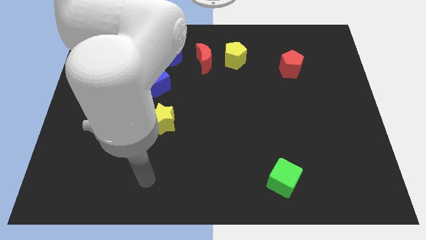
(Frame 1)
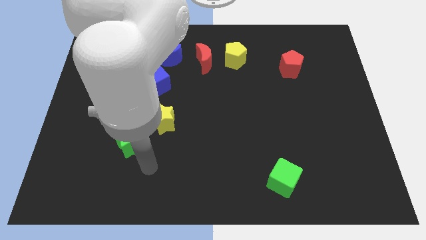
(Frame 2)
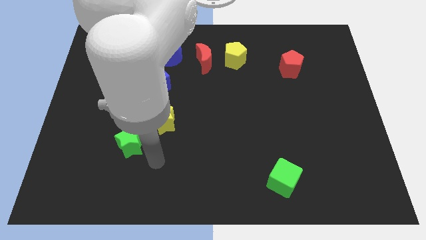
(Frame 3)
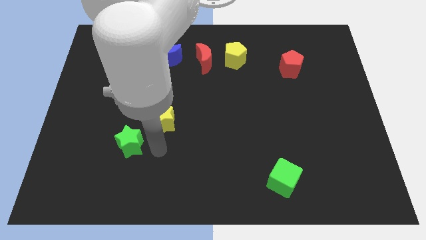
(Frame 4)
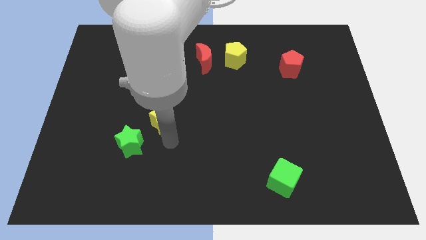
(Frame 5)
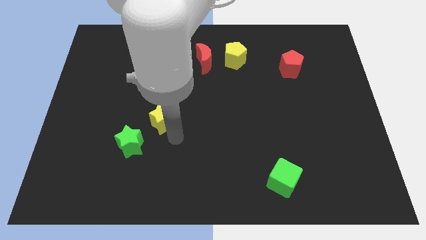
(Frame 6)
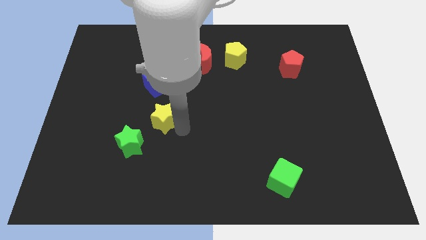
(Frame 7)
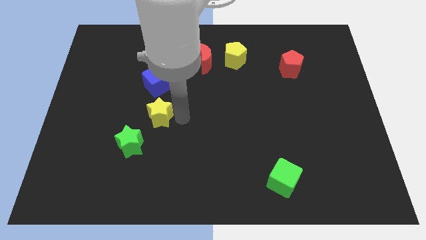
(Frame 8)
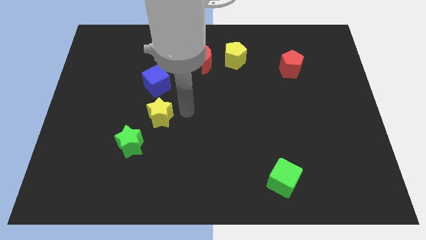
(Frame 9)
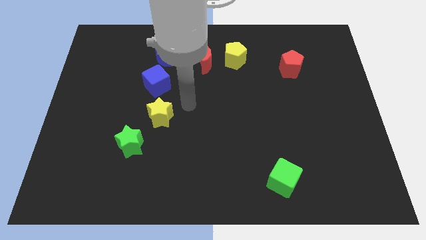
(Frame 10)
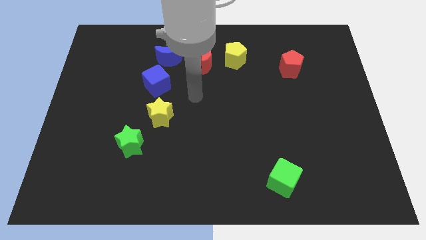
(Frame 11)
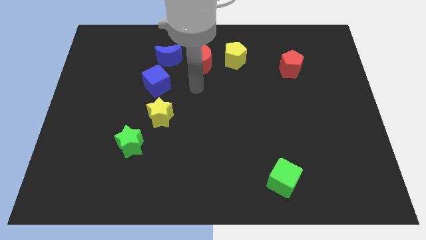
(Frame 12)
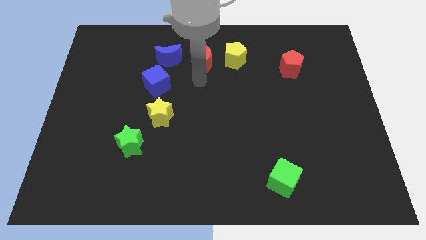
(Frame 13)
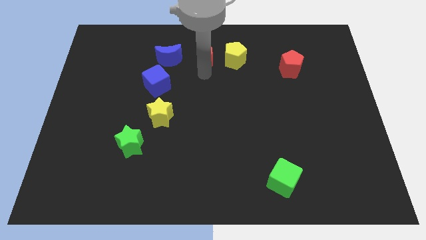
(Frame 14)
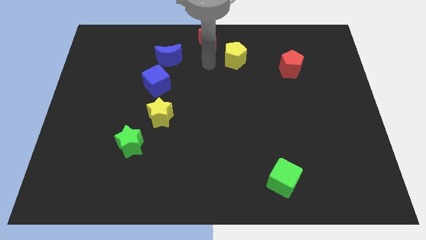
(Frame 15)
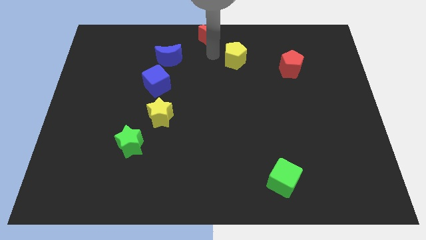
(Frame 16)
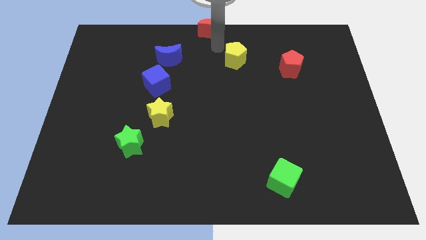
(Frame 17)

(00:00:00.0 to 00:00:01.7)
move the yellow pentagon away from the red moon

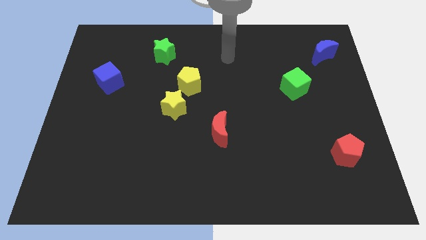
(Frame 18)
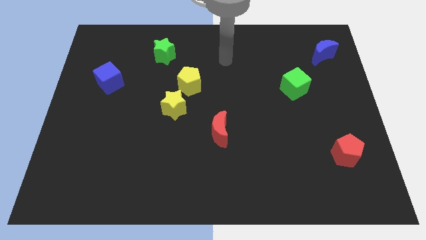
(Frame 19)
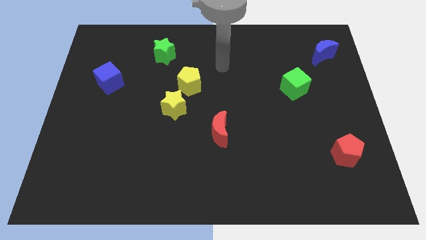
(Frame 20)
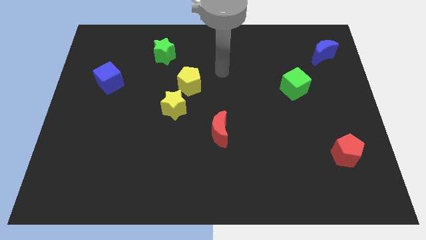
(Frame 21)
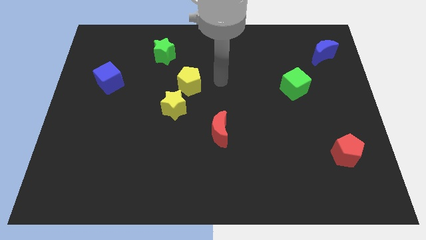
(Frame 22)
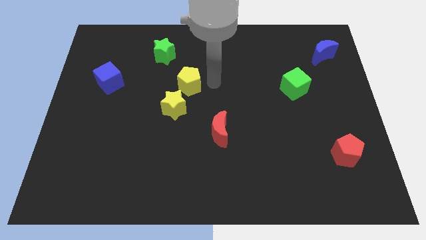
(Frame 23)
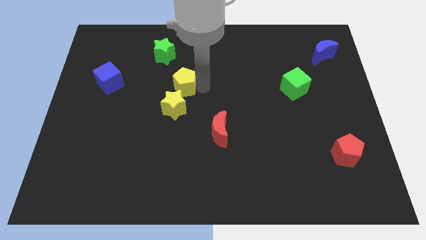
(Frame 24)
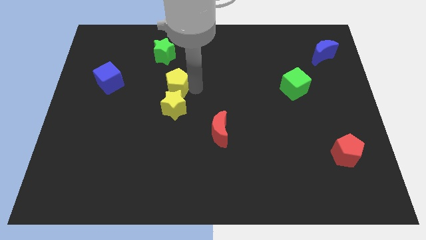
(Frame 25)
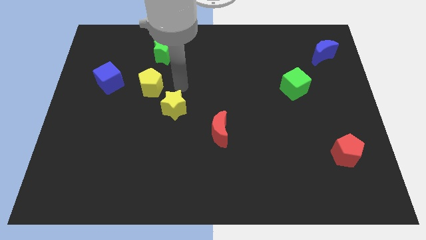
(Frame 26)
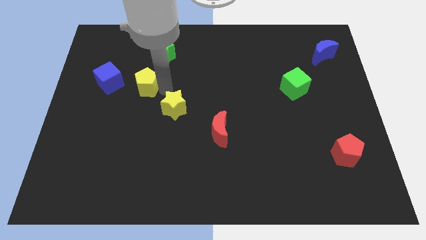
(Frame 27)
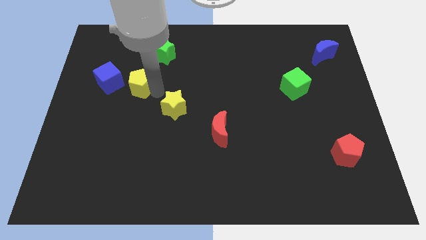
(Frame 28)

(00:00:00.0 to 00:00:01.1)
separate the yellow star from the yellow pentagon

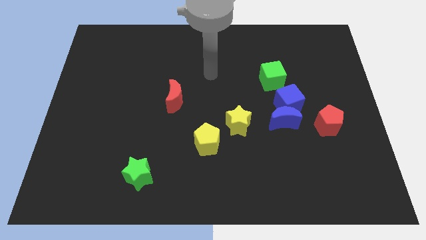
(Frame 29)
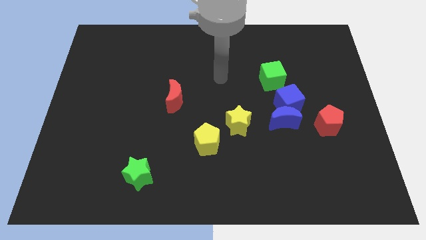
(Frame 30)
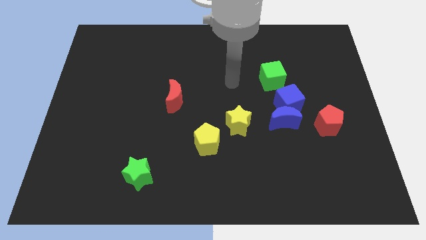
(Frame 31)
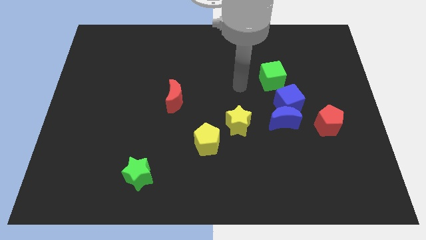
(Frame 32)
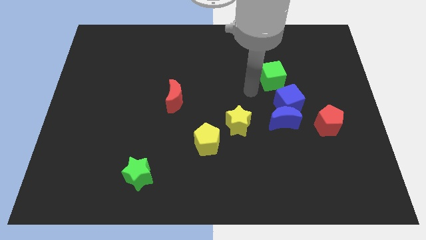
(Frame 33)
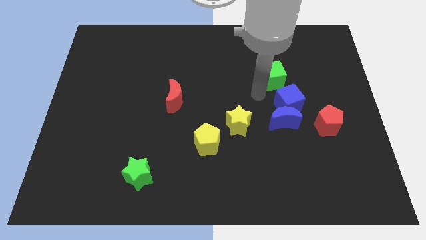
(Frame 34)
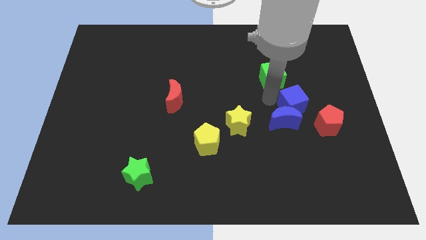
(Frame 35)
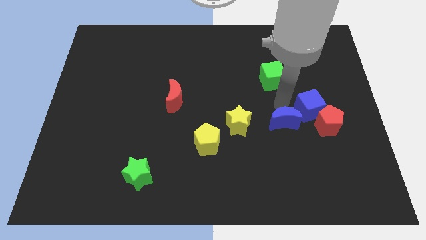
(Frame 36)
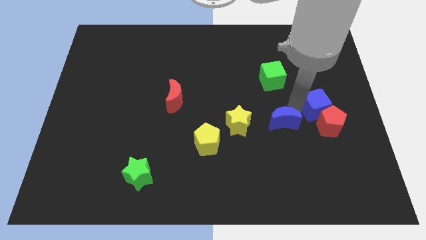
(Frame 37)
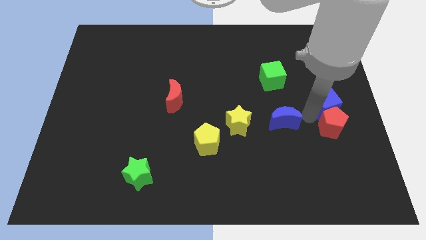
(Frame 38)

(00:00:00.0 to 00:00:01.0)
move the blue moon away from the blue cube and red pentagon

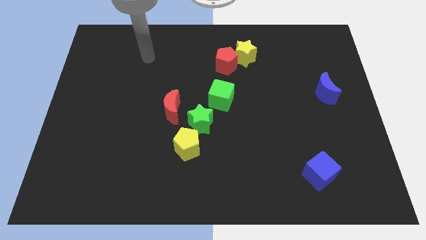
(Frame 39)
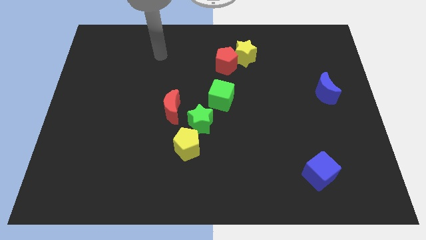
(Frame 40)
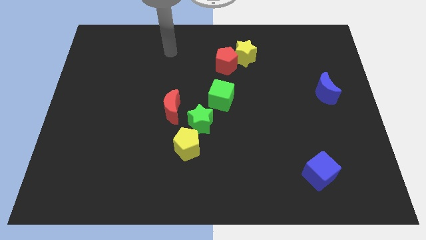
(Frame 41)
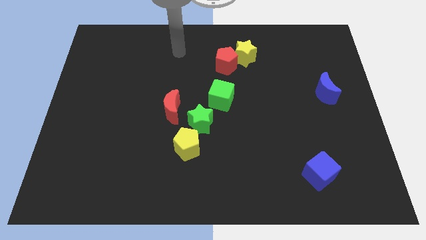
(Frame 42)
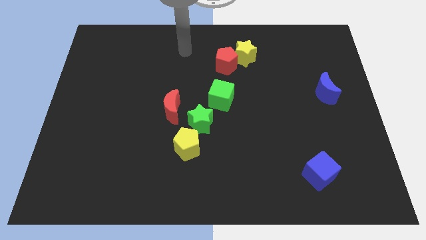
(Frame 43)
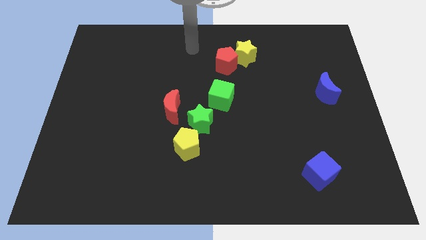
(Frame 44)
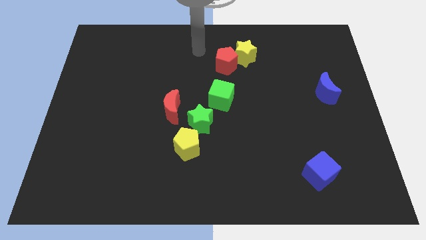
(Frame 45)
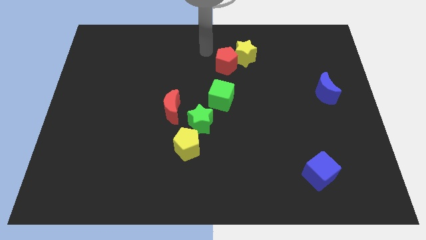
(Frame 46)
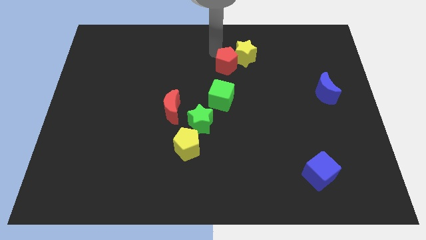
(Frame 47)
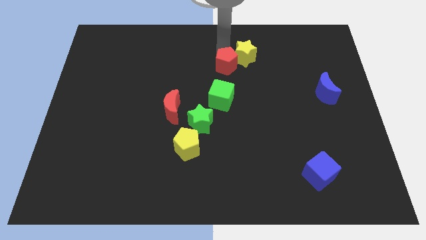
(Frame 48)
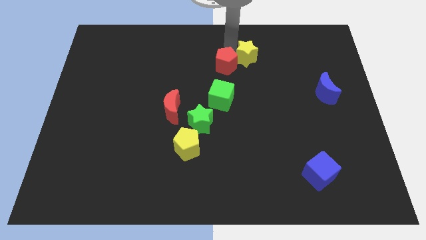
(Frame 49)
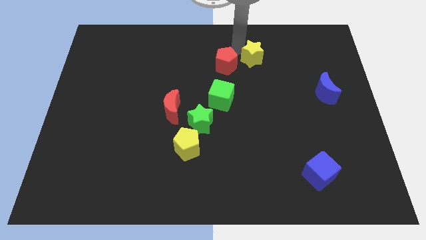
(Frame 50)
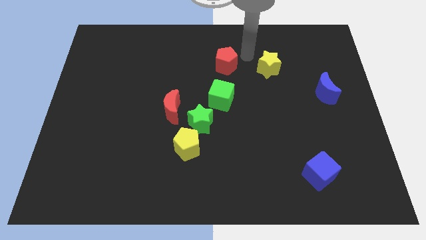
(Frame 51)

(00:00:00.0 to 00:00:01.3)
separate the red pentagon from the yellow star

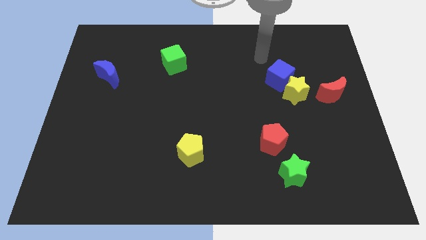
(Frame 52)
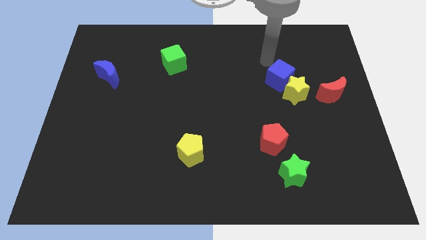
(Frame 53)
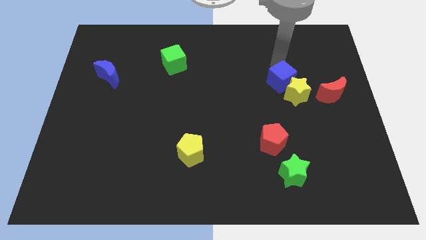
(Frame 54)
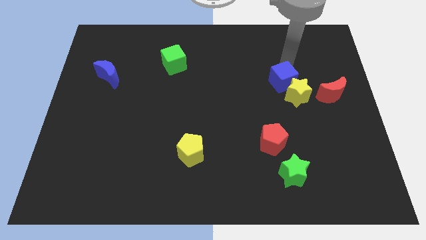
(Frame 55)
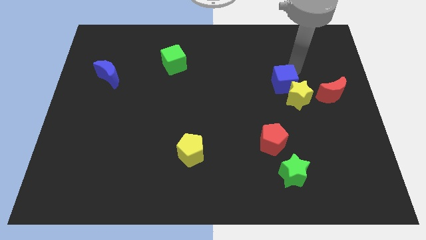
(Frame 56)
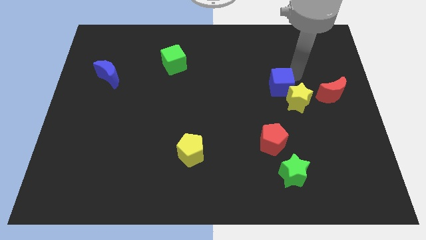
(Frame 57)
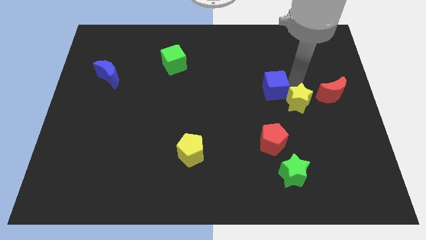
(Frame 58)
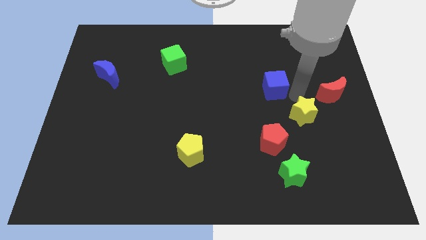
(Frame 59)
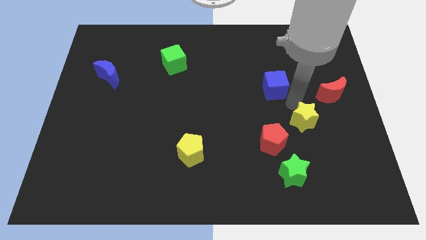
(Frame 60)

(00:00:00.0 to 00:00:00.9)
move the blue cube away from the yellow star

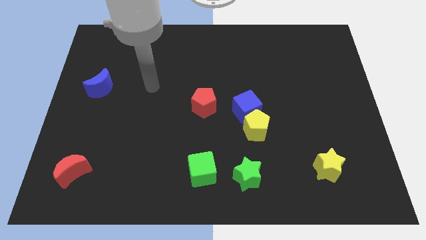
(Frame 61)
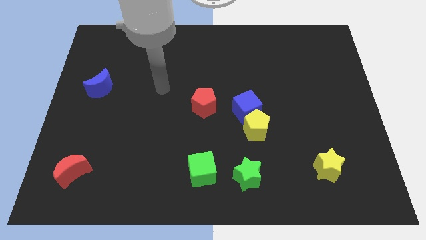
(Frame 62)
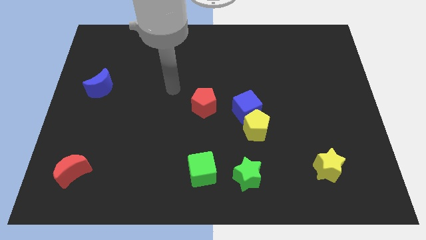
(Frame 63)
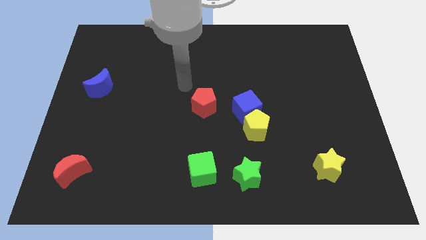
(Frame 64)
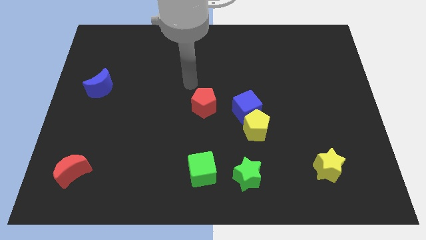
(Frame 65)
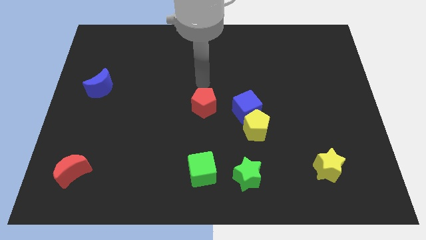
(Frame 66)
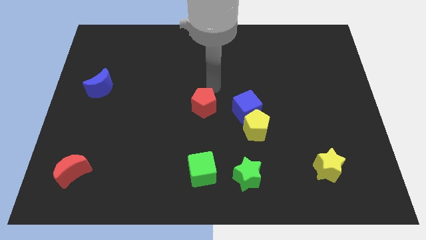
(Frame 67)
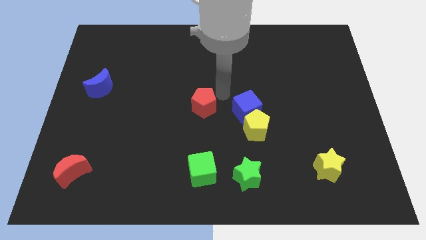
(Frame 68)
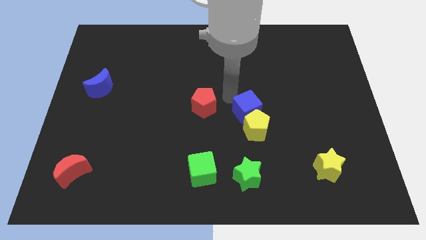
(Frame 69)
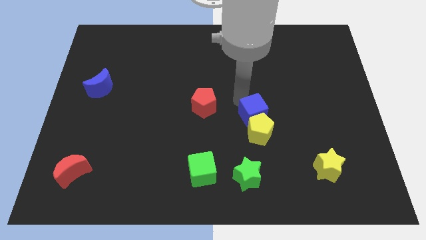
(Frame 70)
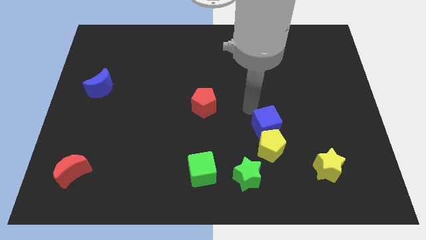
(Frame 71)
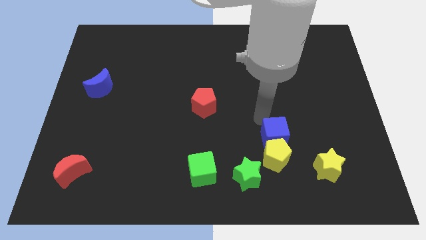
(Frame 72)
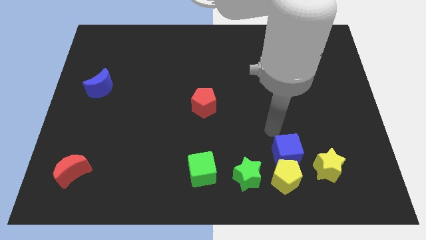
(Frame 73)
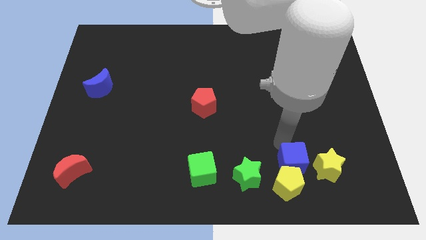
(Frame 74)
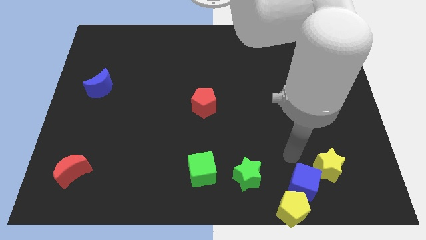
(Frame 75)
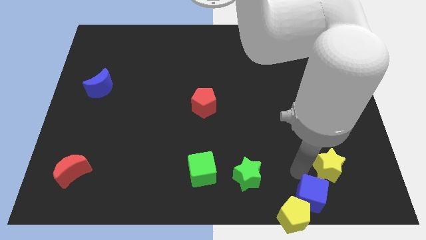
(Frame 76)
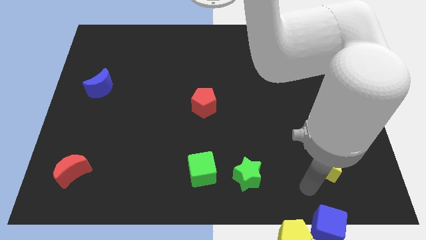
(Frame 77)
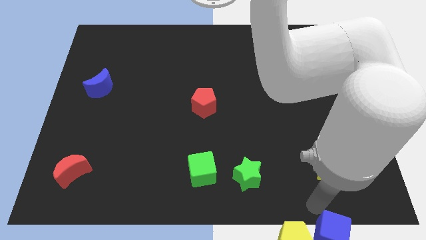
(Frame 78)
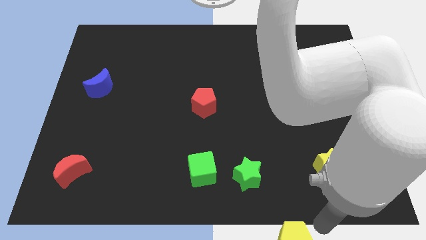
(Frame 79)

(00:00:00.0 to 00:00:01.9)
move the yellow pentagon away from the blue cube

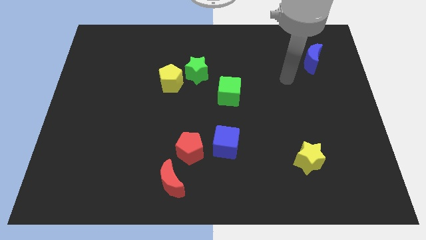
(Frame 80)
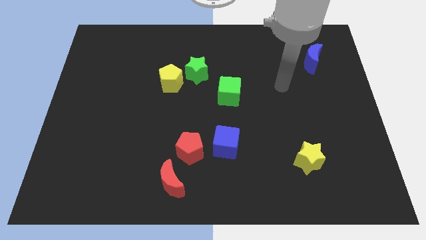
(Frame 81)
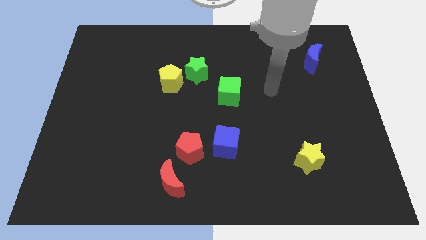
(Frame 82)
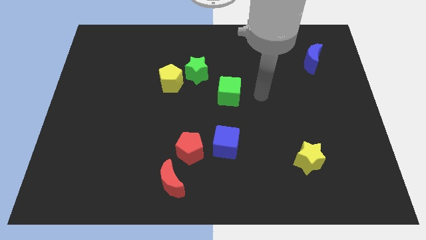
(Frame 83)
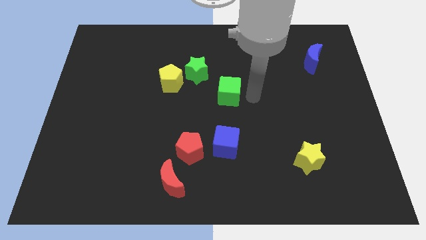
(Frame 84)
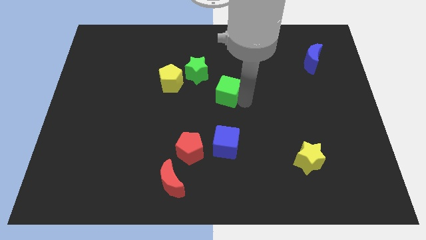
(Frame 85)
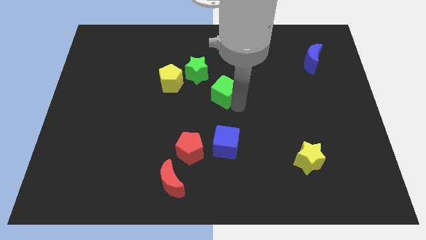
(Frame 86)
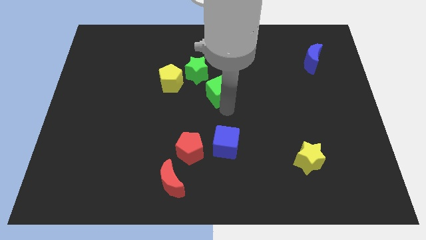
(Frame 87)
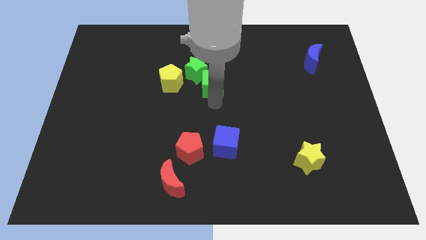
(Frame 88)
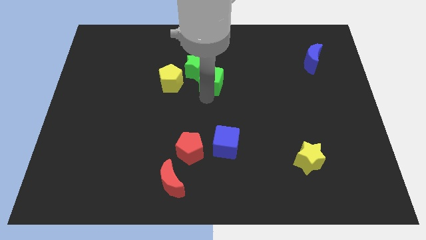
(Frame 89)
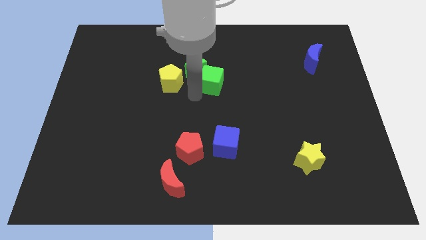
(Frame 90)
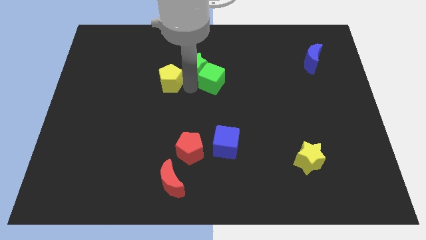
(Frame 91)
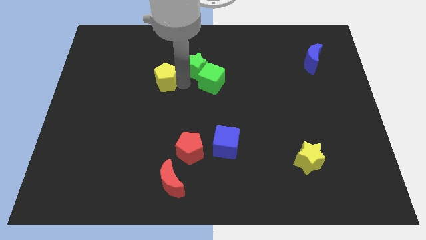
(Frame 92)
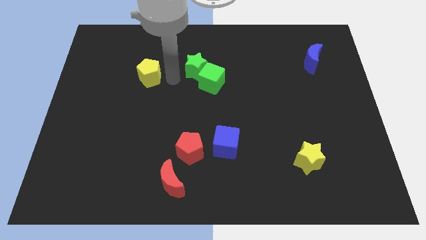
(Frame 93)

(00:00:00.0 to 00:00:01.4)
pull the green star apart from the yellow pentagon
